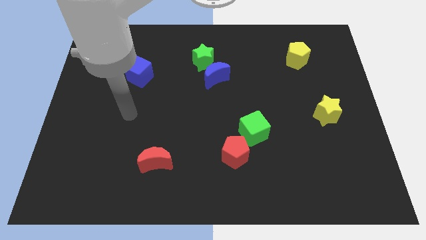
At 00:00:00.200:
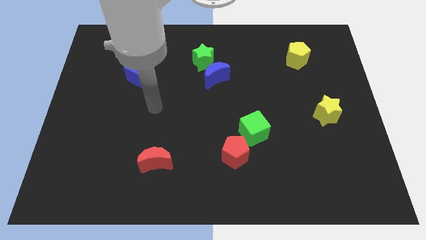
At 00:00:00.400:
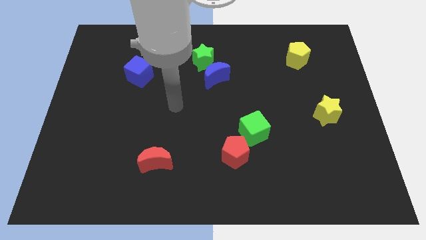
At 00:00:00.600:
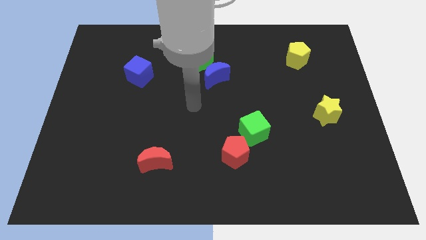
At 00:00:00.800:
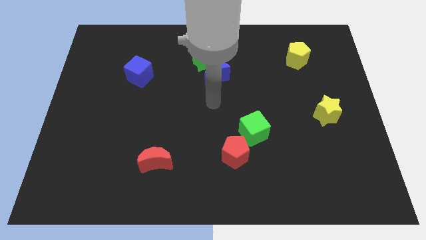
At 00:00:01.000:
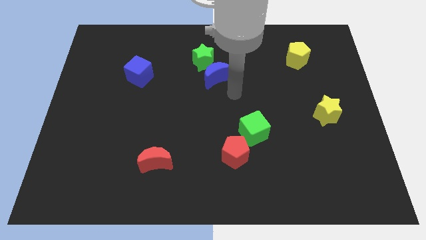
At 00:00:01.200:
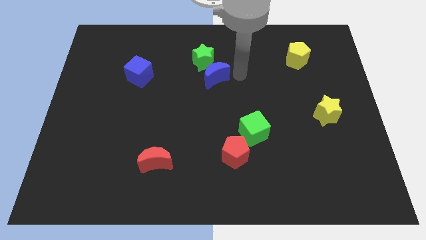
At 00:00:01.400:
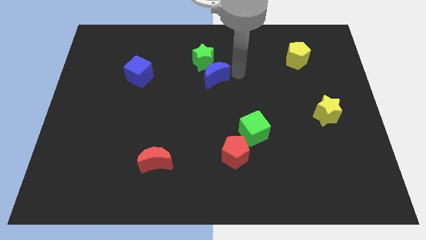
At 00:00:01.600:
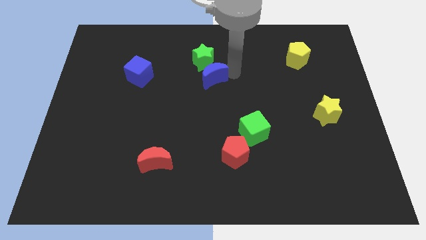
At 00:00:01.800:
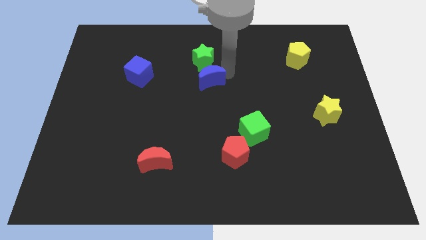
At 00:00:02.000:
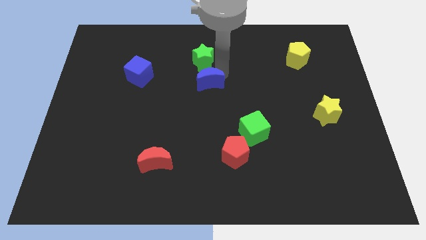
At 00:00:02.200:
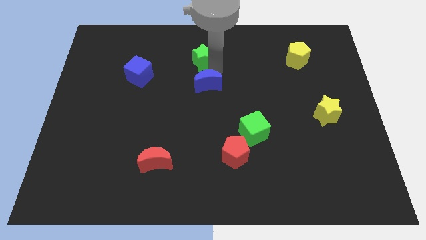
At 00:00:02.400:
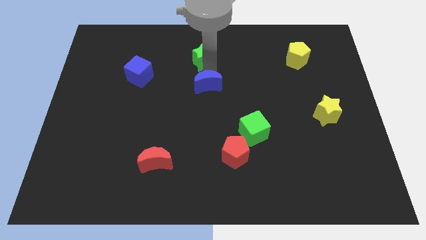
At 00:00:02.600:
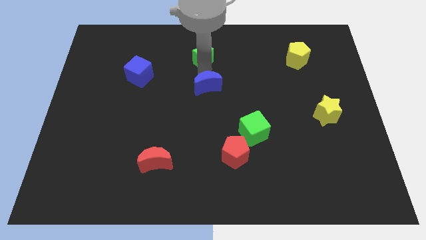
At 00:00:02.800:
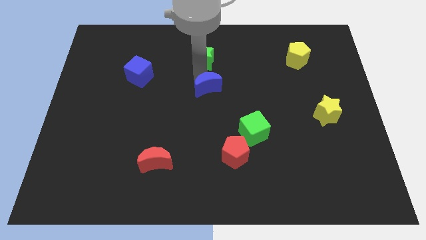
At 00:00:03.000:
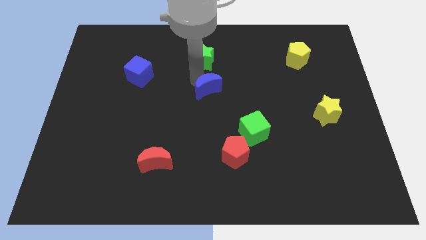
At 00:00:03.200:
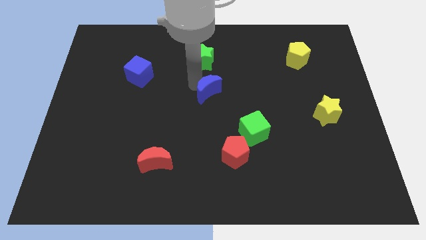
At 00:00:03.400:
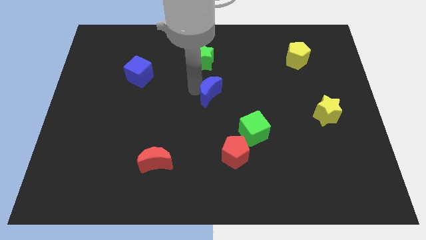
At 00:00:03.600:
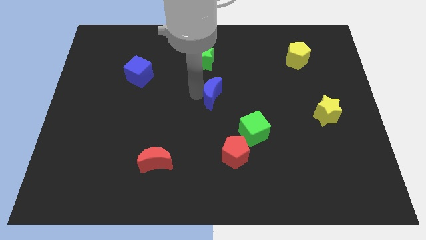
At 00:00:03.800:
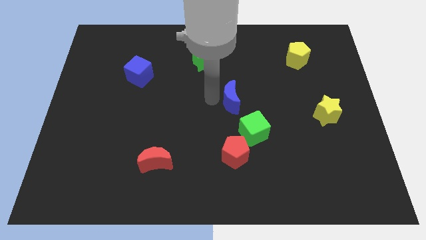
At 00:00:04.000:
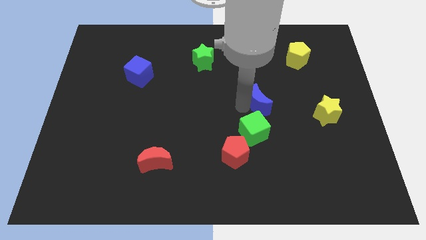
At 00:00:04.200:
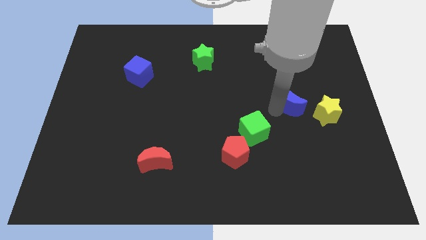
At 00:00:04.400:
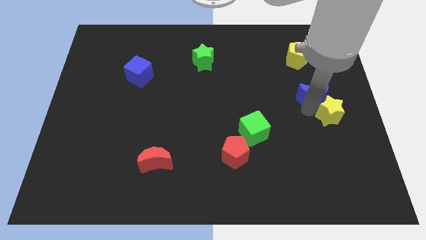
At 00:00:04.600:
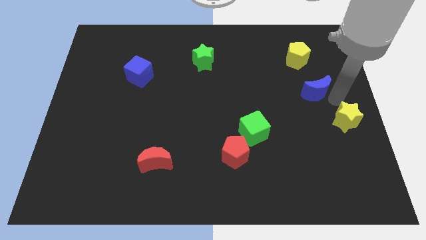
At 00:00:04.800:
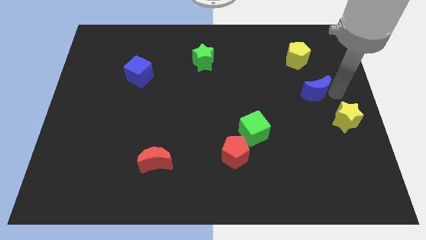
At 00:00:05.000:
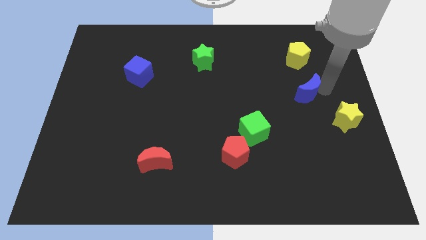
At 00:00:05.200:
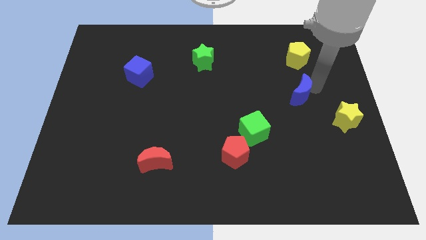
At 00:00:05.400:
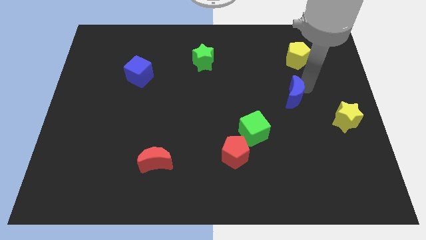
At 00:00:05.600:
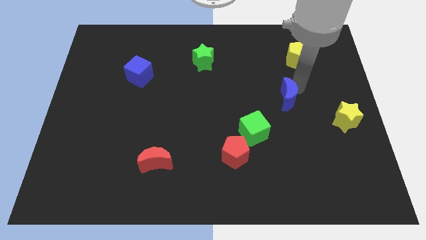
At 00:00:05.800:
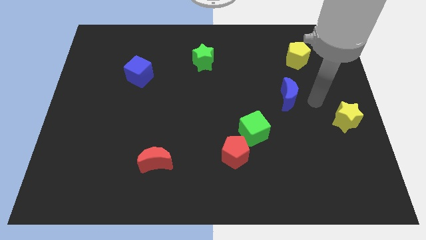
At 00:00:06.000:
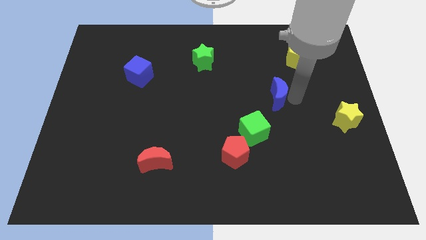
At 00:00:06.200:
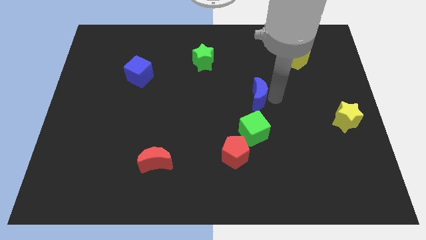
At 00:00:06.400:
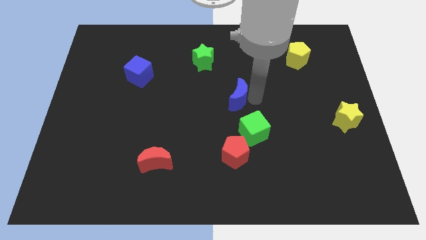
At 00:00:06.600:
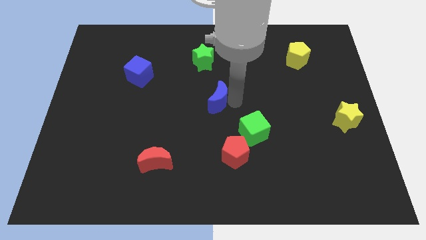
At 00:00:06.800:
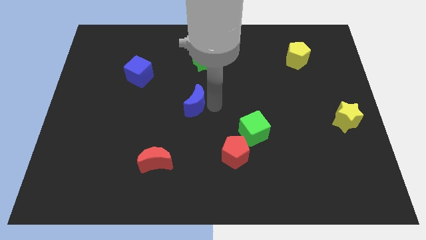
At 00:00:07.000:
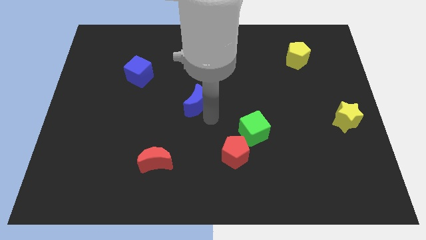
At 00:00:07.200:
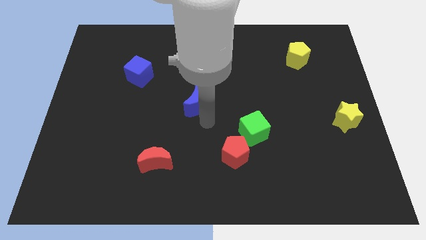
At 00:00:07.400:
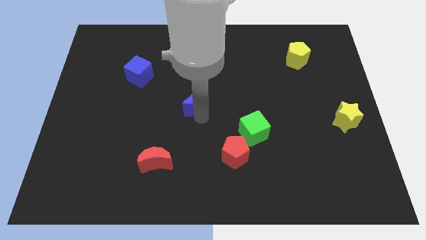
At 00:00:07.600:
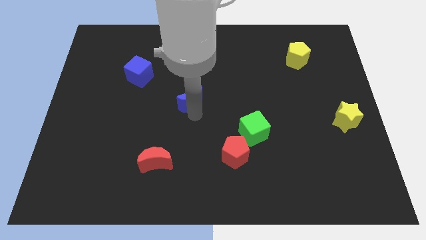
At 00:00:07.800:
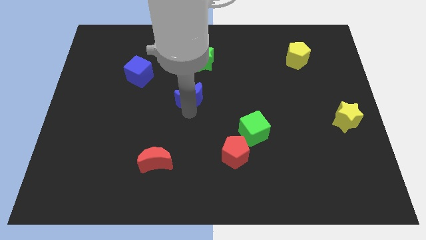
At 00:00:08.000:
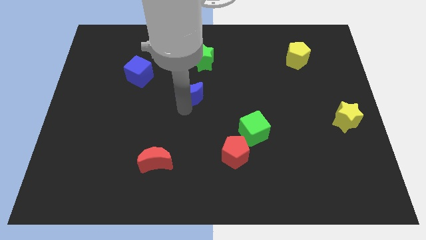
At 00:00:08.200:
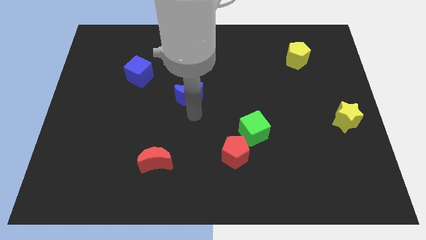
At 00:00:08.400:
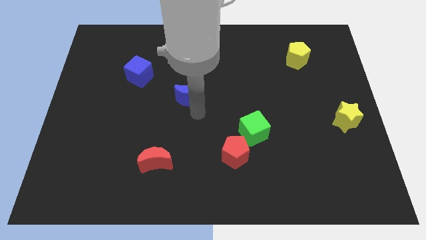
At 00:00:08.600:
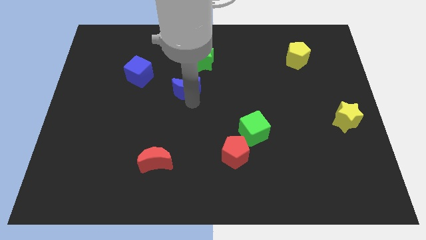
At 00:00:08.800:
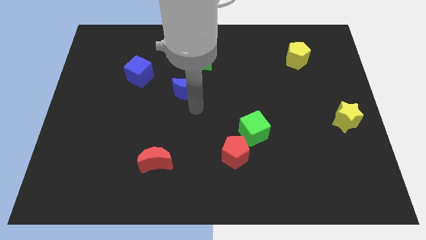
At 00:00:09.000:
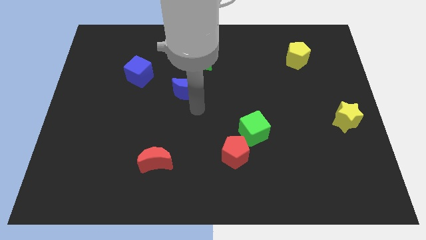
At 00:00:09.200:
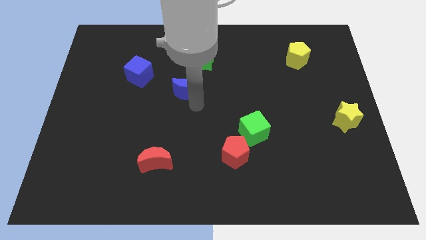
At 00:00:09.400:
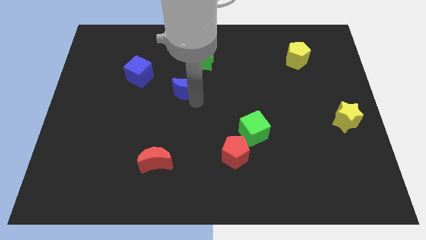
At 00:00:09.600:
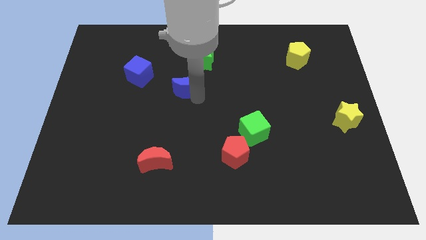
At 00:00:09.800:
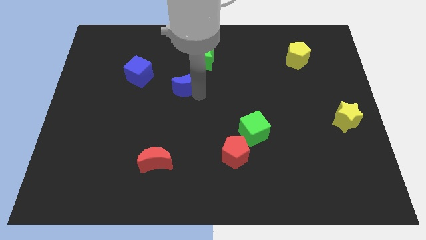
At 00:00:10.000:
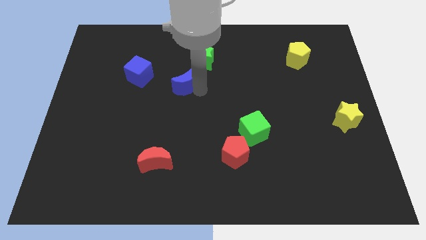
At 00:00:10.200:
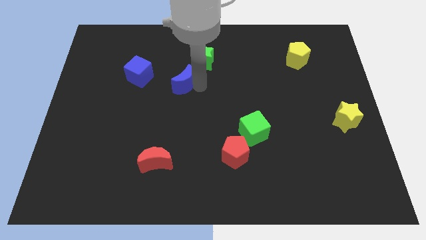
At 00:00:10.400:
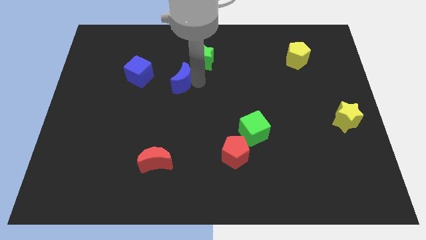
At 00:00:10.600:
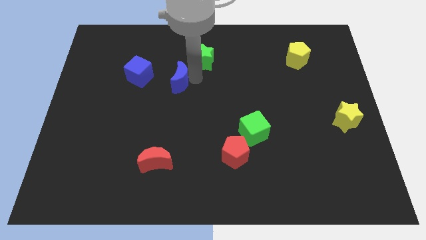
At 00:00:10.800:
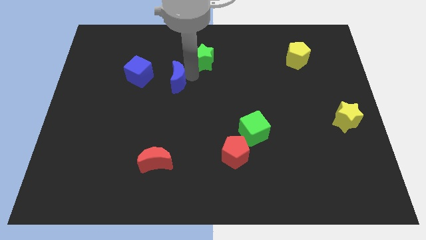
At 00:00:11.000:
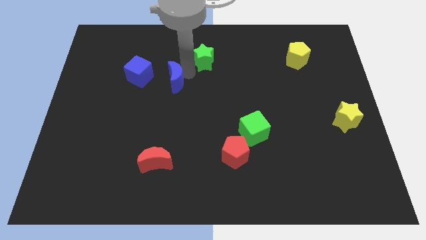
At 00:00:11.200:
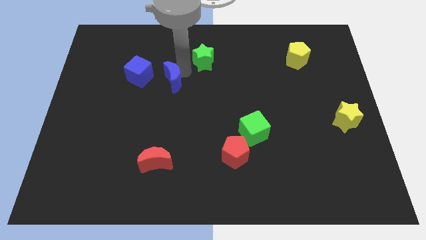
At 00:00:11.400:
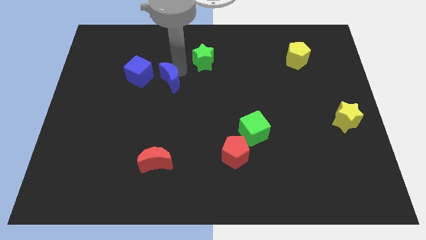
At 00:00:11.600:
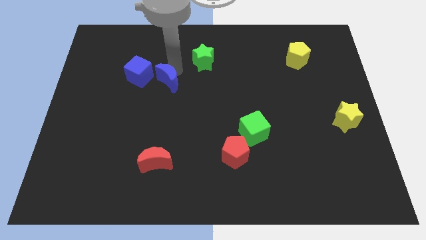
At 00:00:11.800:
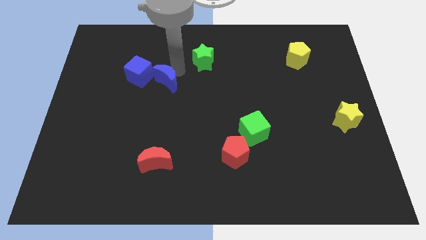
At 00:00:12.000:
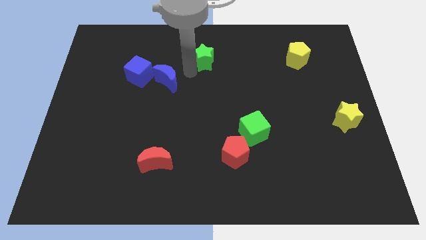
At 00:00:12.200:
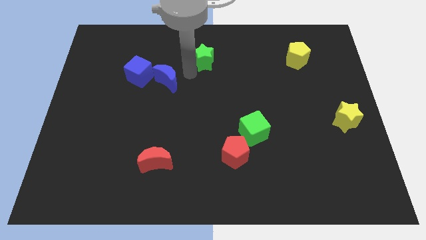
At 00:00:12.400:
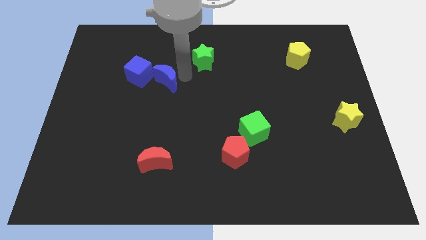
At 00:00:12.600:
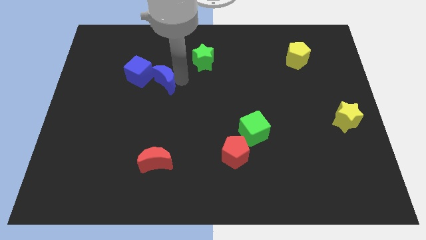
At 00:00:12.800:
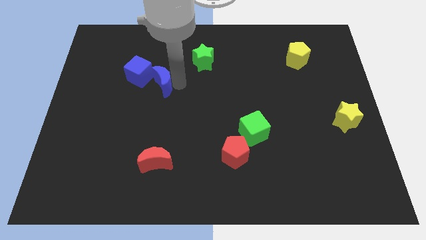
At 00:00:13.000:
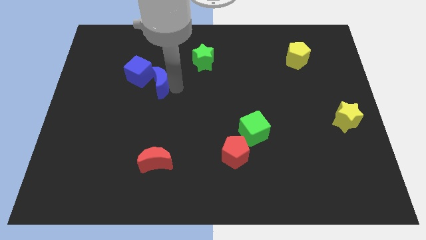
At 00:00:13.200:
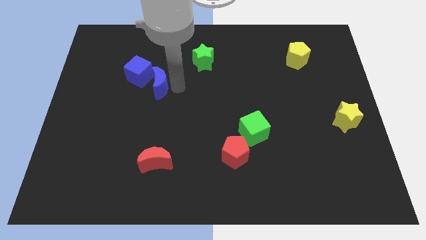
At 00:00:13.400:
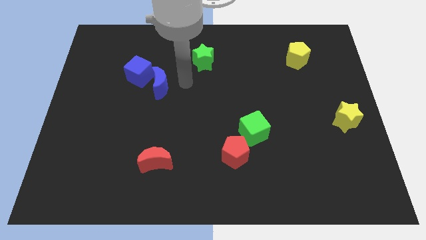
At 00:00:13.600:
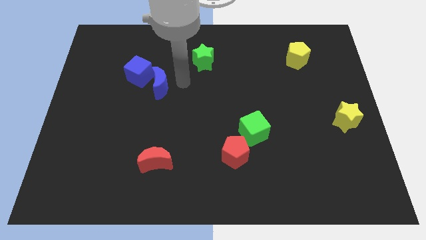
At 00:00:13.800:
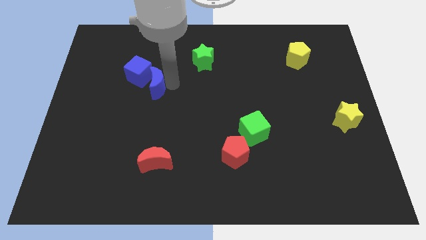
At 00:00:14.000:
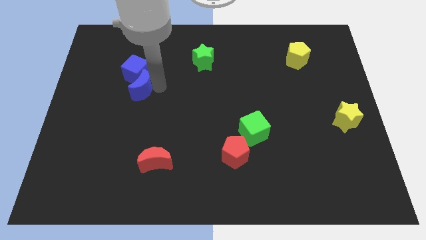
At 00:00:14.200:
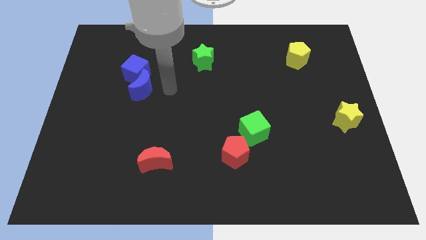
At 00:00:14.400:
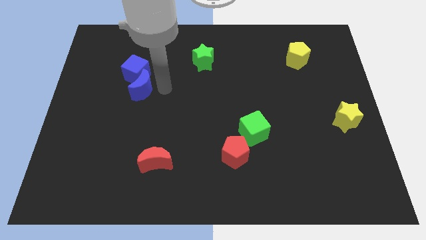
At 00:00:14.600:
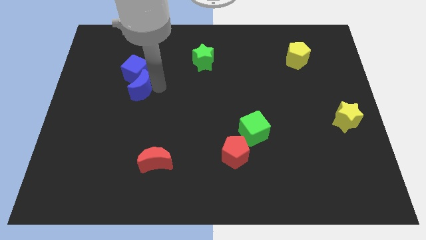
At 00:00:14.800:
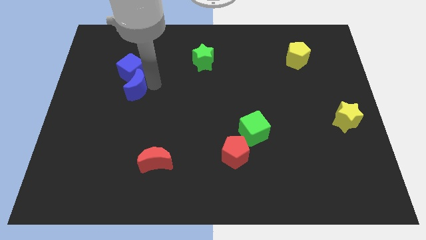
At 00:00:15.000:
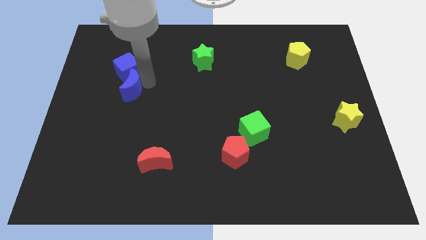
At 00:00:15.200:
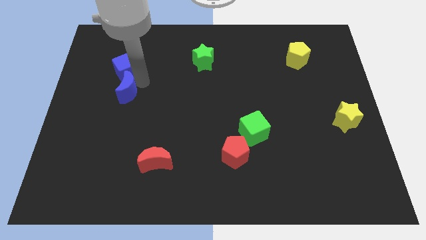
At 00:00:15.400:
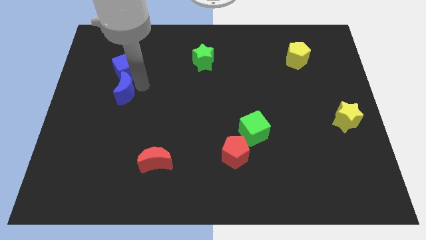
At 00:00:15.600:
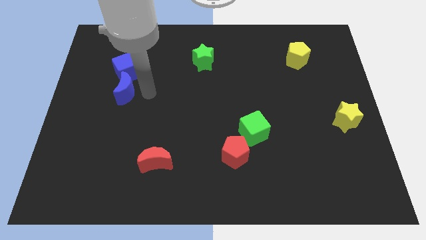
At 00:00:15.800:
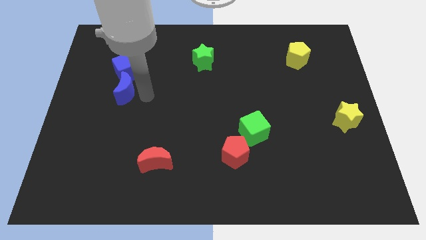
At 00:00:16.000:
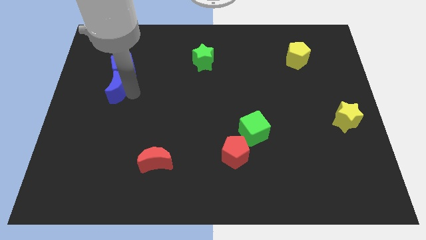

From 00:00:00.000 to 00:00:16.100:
slide the blue moon diagonally down and to the left of the blue cube
